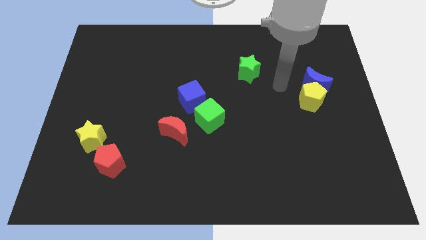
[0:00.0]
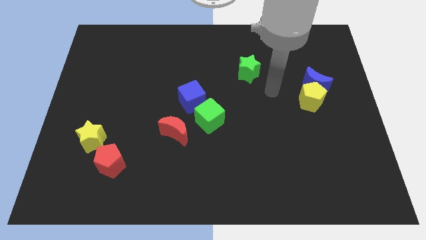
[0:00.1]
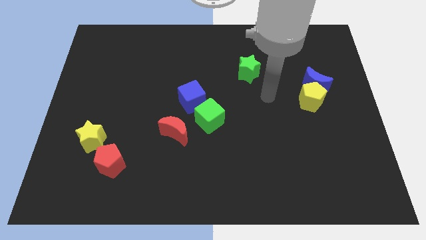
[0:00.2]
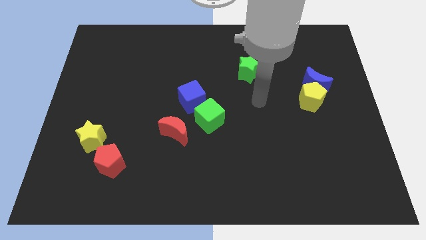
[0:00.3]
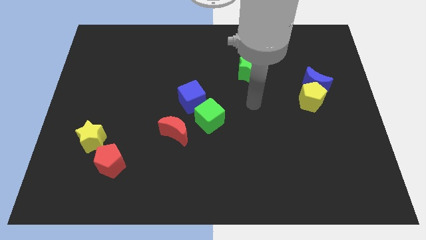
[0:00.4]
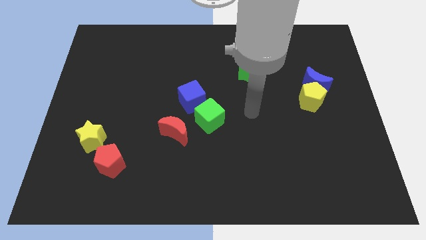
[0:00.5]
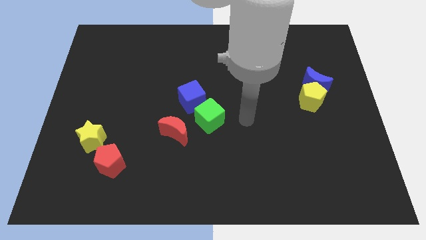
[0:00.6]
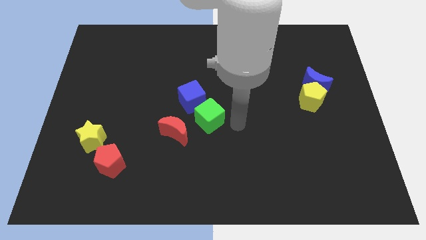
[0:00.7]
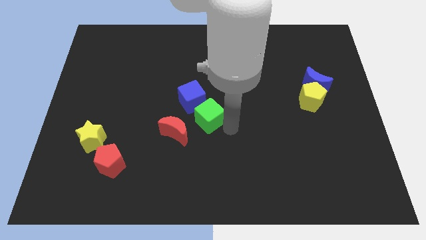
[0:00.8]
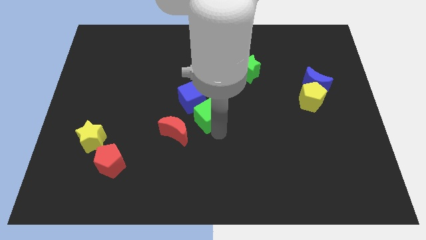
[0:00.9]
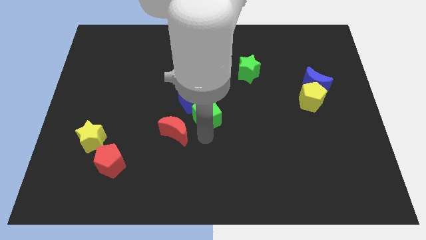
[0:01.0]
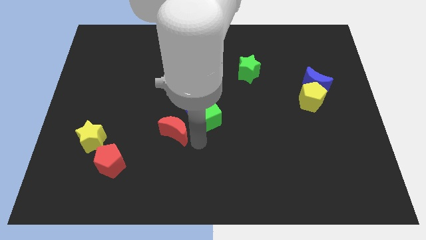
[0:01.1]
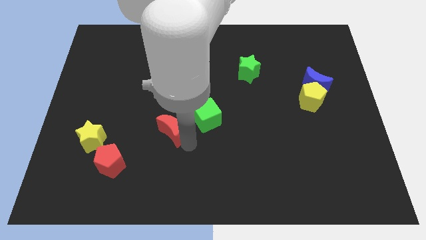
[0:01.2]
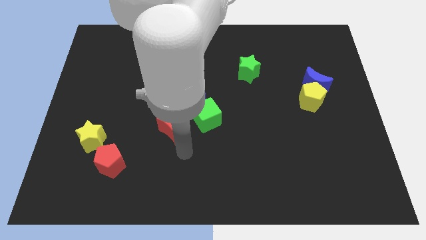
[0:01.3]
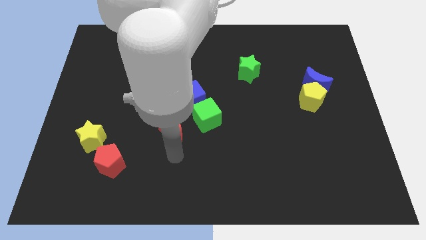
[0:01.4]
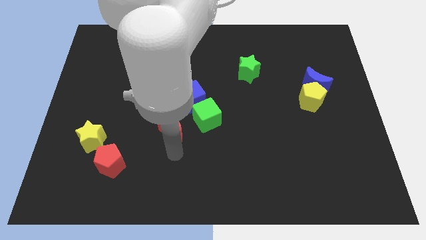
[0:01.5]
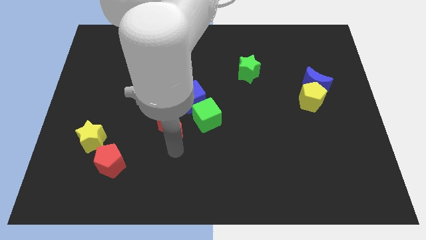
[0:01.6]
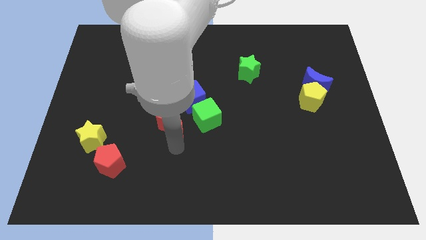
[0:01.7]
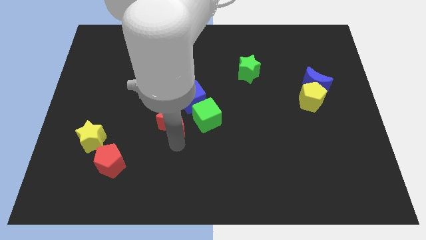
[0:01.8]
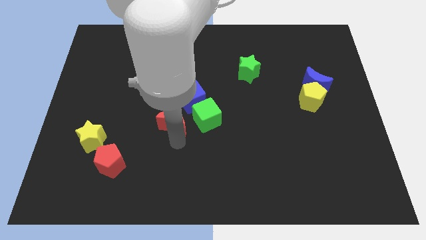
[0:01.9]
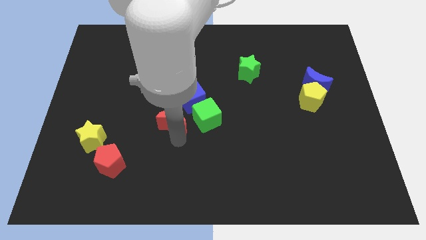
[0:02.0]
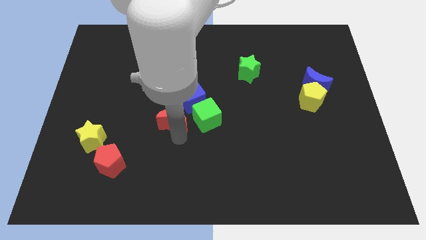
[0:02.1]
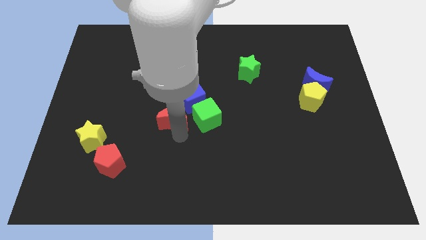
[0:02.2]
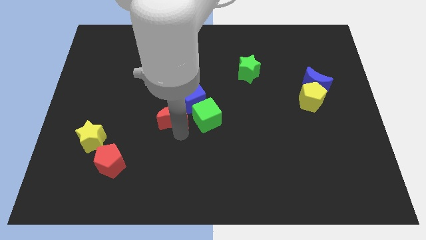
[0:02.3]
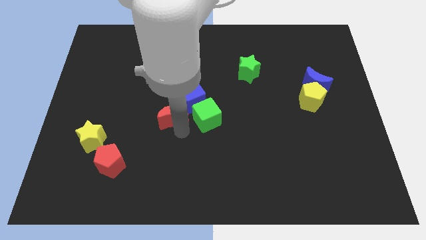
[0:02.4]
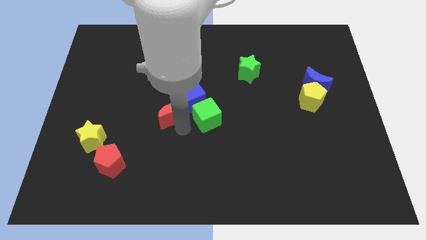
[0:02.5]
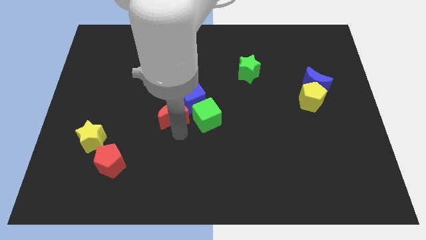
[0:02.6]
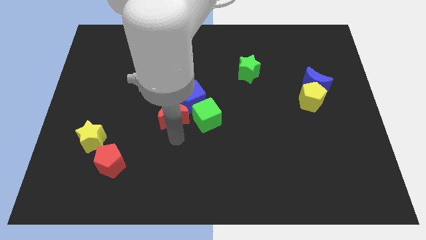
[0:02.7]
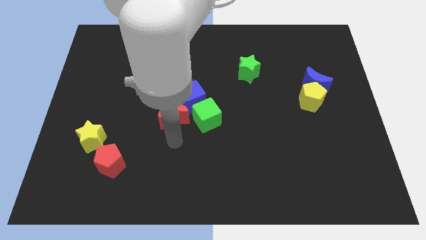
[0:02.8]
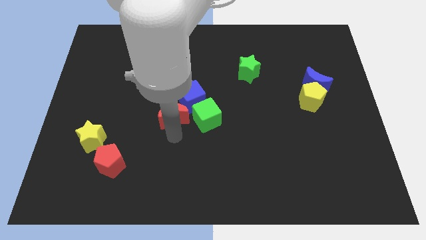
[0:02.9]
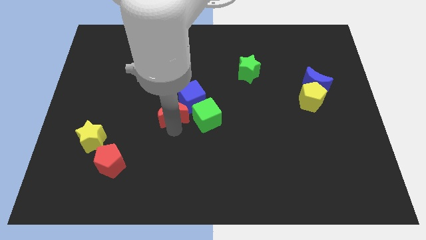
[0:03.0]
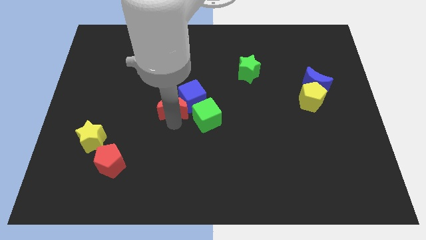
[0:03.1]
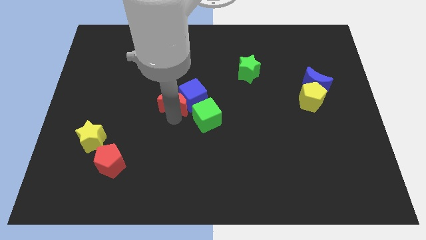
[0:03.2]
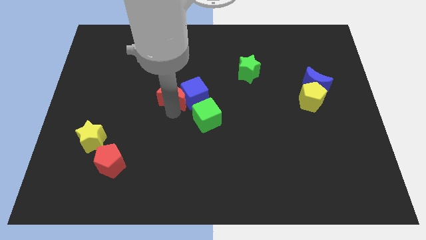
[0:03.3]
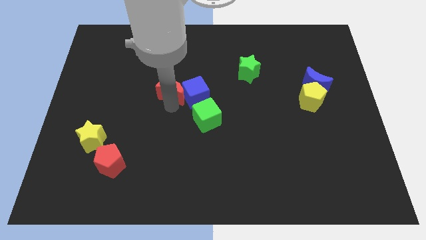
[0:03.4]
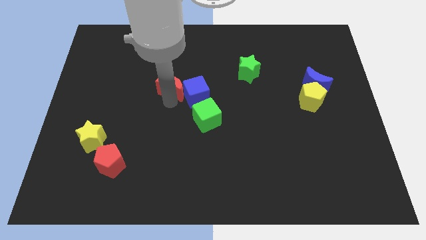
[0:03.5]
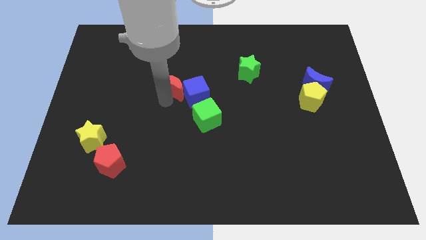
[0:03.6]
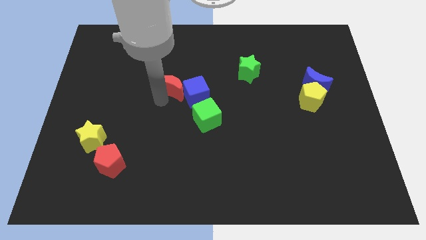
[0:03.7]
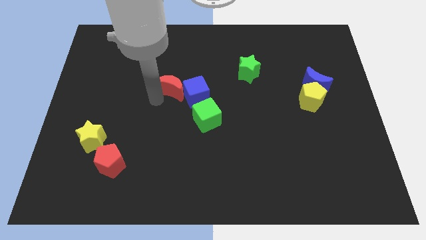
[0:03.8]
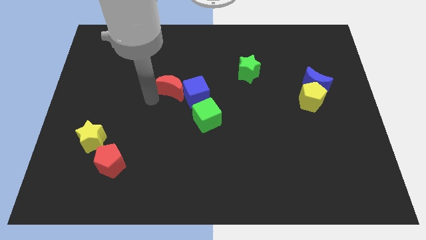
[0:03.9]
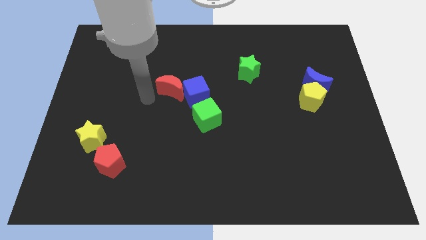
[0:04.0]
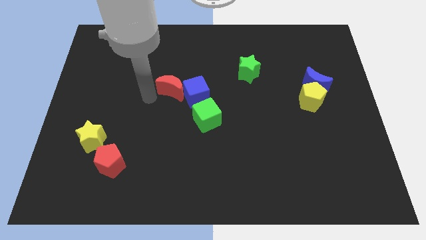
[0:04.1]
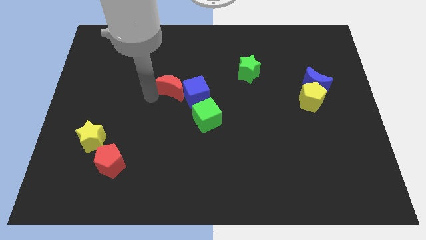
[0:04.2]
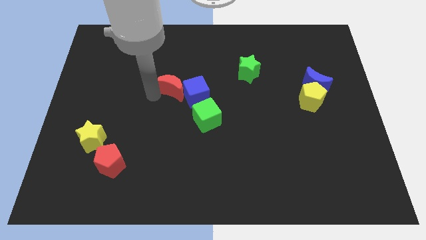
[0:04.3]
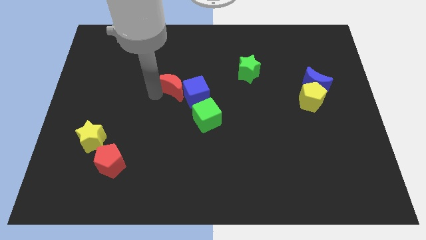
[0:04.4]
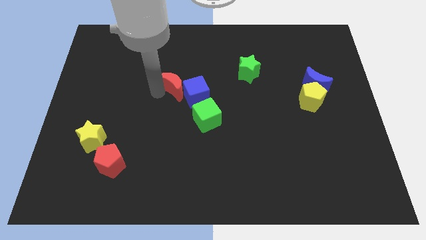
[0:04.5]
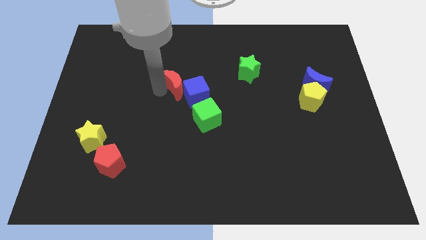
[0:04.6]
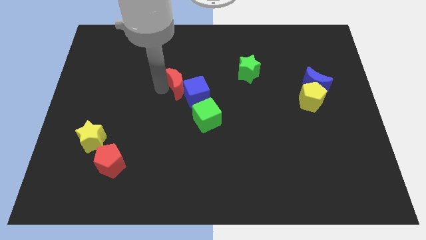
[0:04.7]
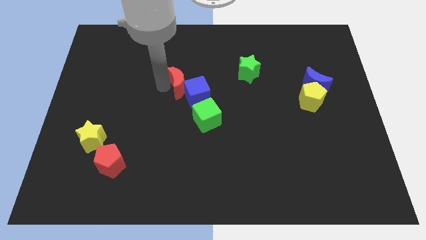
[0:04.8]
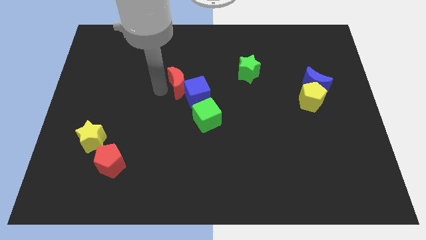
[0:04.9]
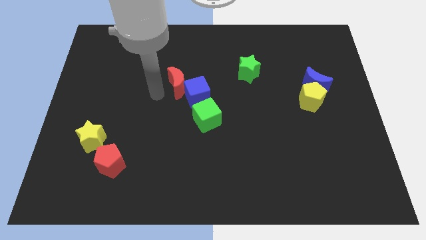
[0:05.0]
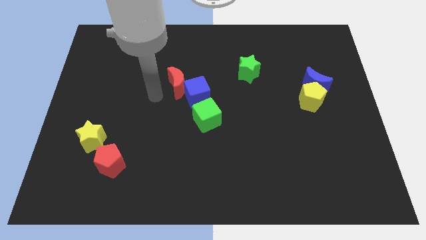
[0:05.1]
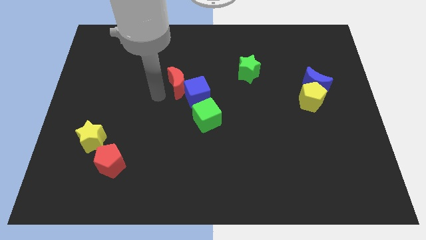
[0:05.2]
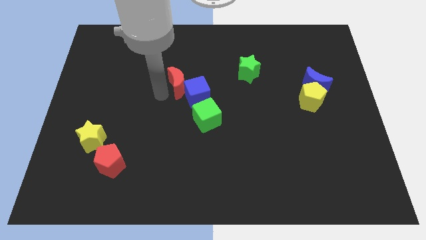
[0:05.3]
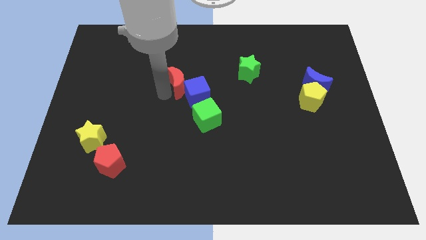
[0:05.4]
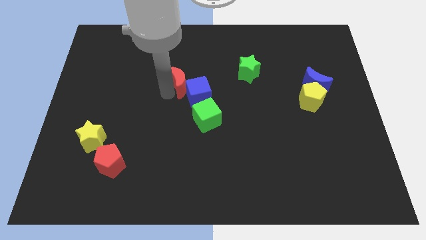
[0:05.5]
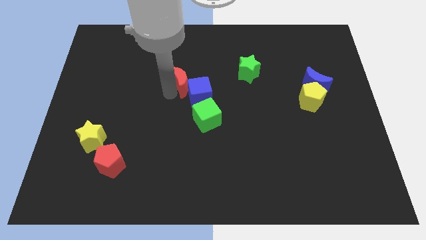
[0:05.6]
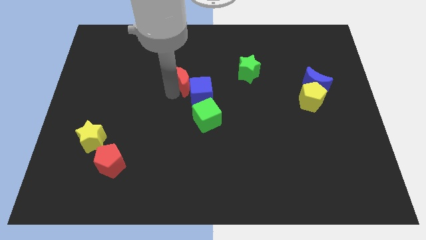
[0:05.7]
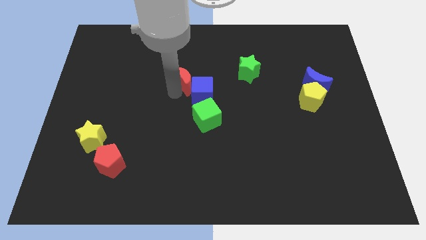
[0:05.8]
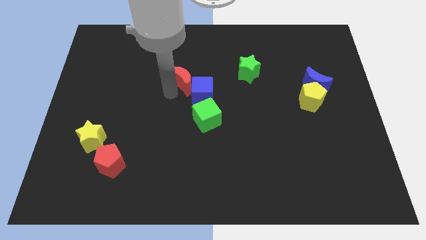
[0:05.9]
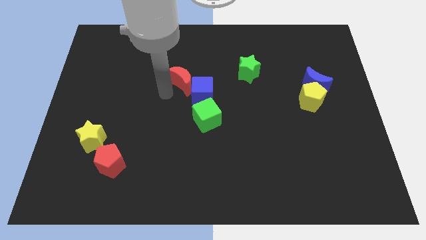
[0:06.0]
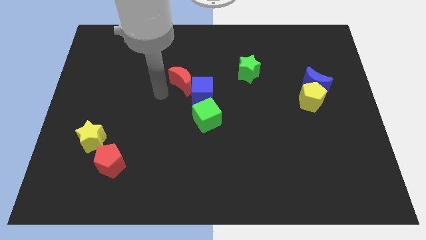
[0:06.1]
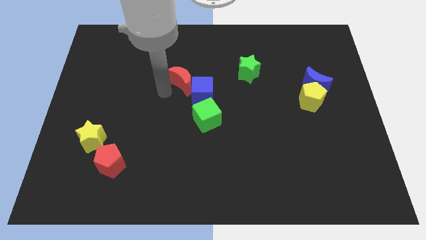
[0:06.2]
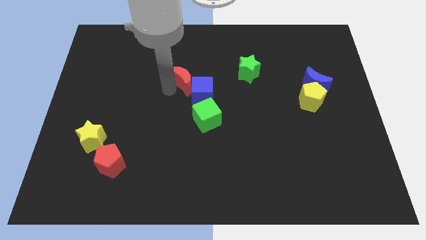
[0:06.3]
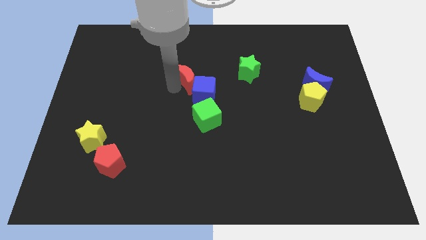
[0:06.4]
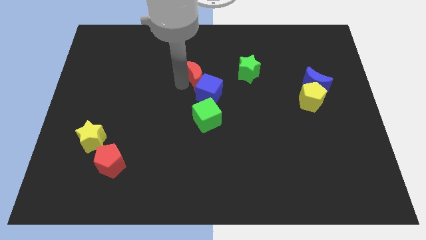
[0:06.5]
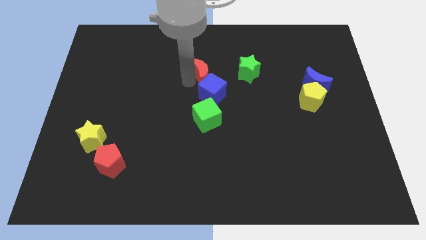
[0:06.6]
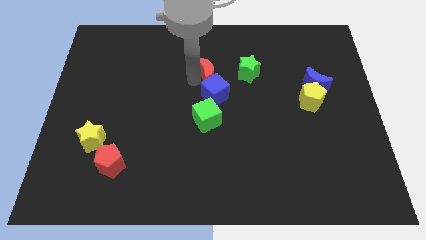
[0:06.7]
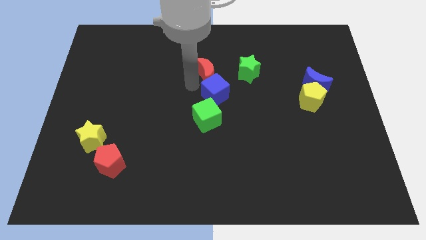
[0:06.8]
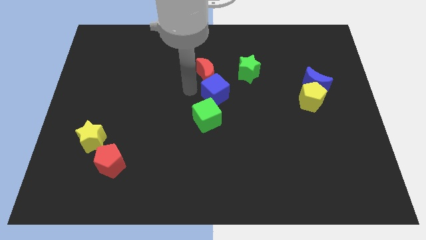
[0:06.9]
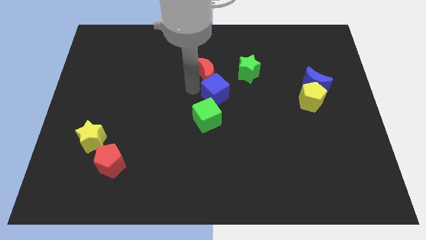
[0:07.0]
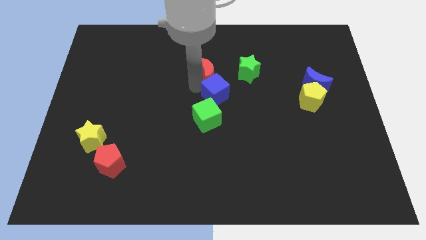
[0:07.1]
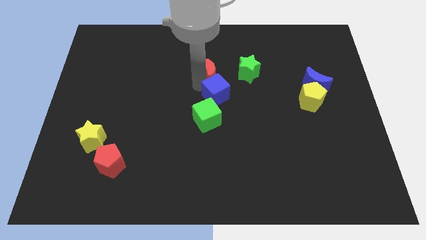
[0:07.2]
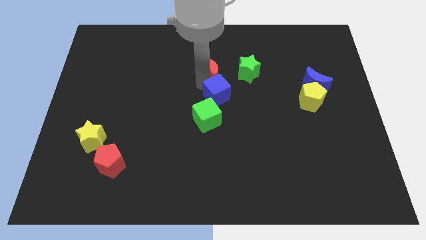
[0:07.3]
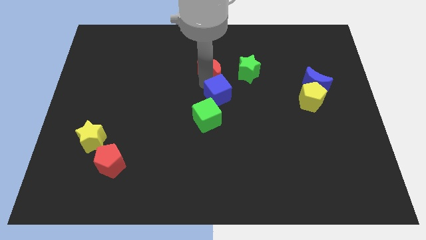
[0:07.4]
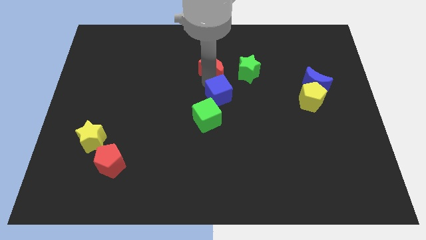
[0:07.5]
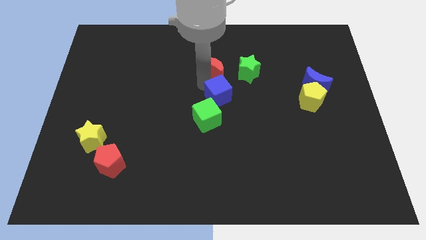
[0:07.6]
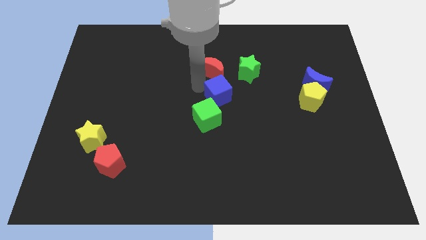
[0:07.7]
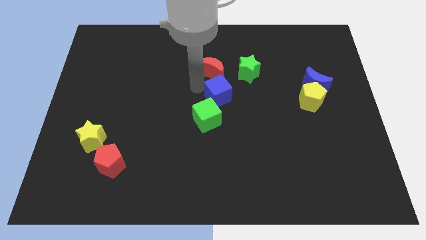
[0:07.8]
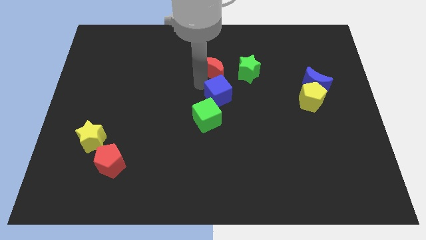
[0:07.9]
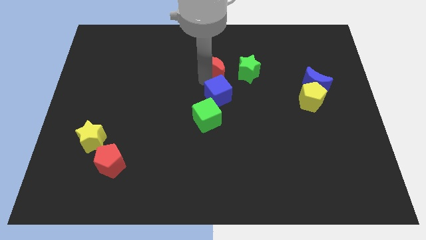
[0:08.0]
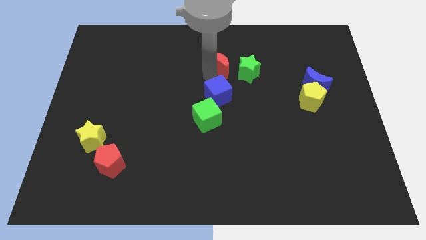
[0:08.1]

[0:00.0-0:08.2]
put the red moon to the top left side of the green star
